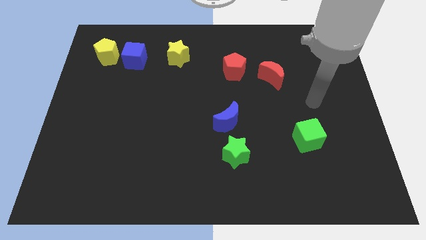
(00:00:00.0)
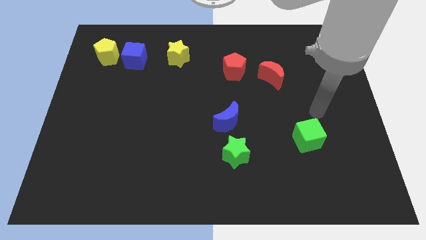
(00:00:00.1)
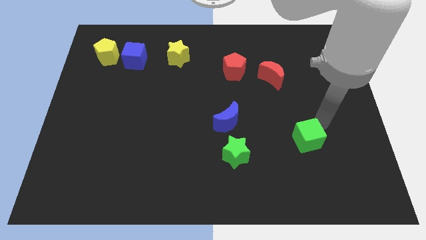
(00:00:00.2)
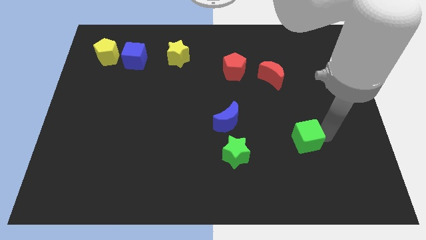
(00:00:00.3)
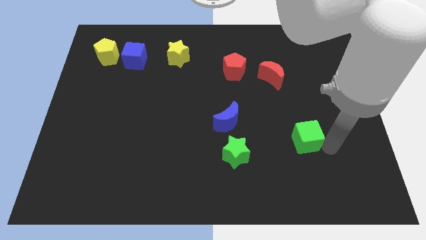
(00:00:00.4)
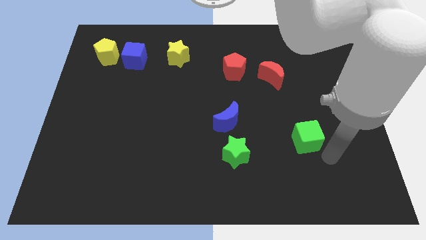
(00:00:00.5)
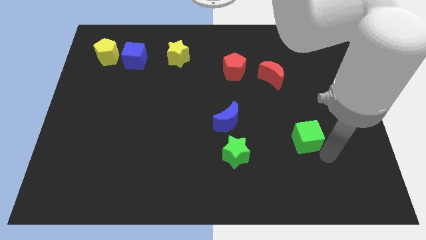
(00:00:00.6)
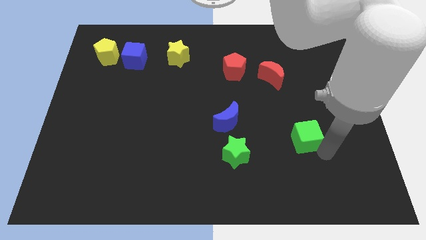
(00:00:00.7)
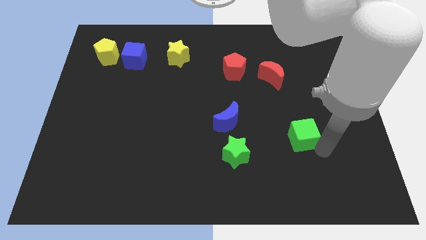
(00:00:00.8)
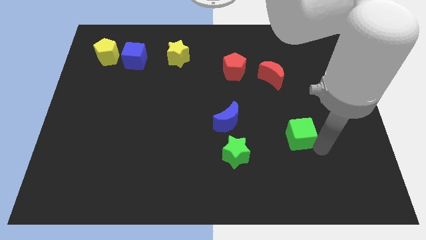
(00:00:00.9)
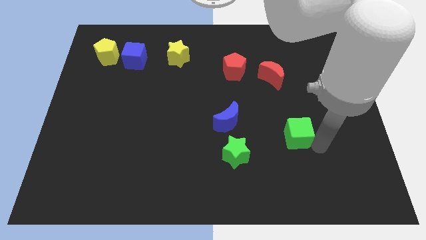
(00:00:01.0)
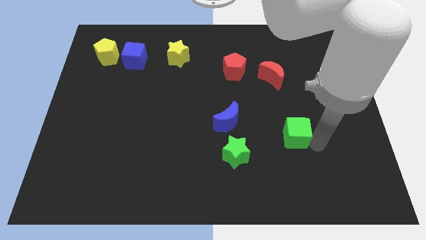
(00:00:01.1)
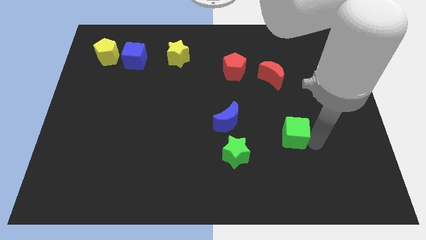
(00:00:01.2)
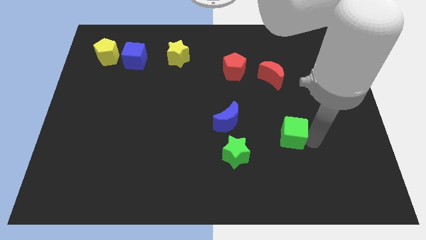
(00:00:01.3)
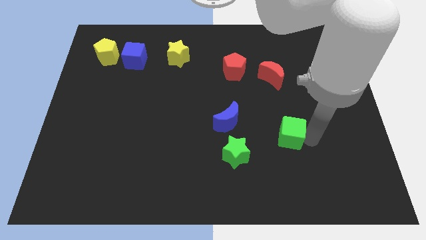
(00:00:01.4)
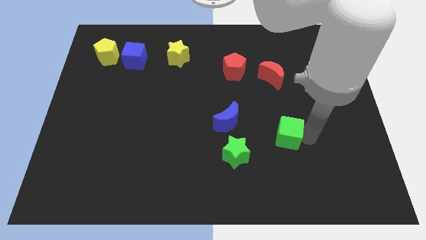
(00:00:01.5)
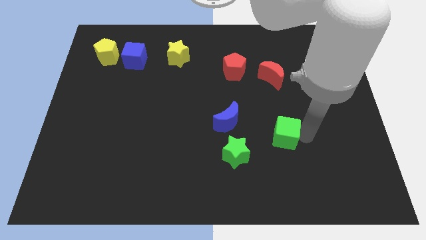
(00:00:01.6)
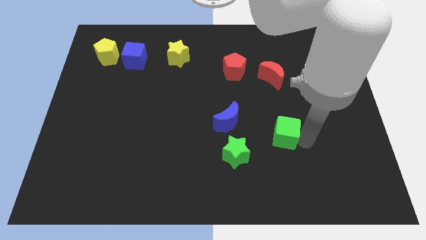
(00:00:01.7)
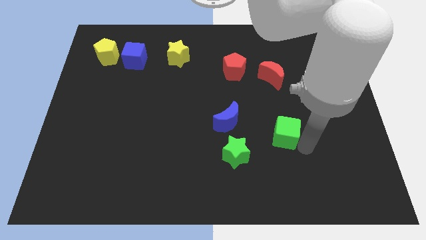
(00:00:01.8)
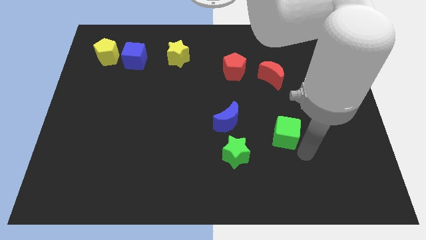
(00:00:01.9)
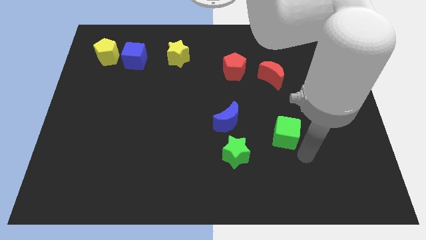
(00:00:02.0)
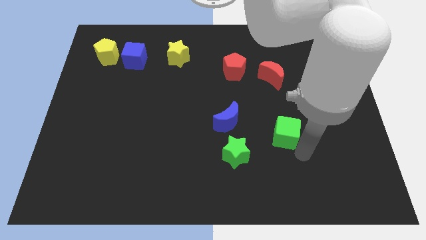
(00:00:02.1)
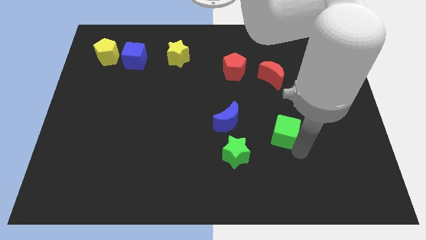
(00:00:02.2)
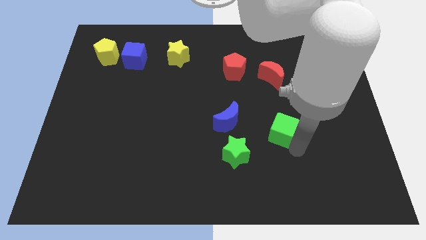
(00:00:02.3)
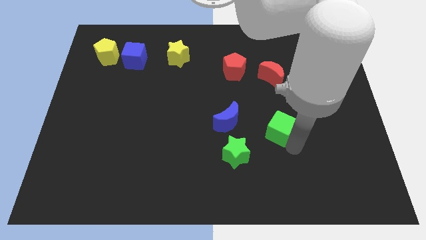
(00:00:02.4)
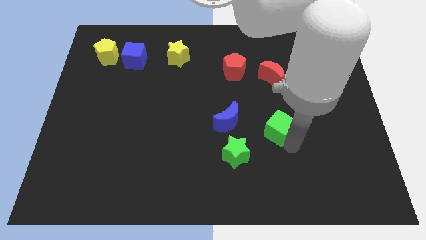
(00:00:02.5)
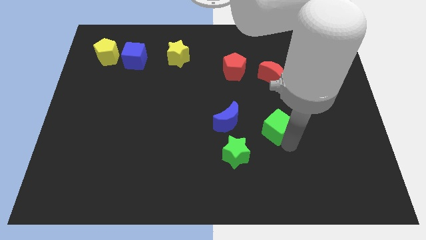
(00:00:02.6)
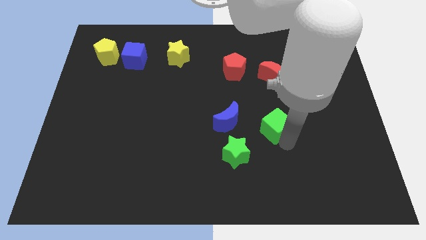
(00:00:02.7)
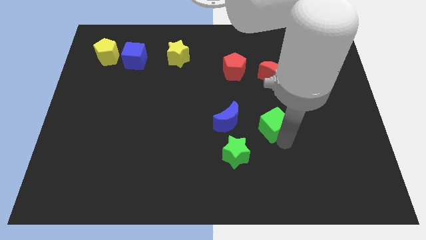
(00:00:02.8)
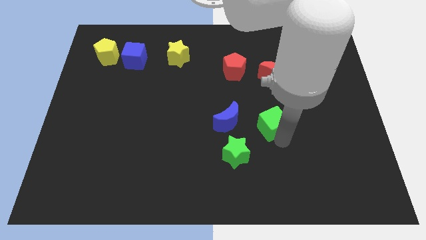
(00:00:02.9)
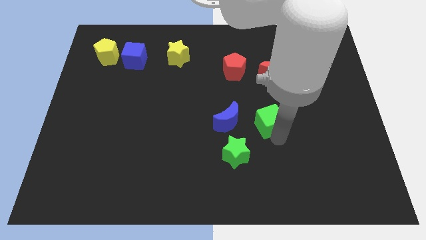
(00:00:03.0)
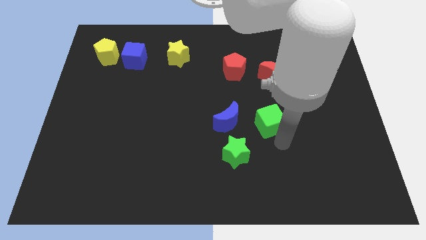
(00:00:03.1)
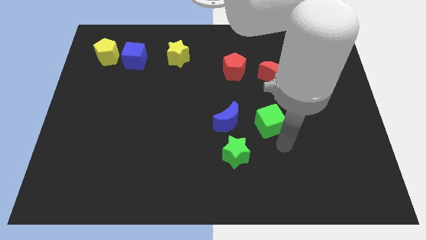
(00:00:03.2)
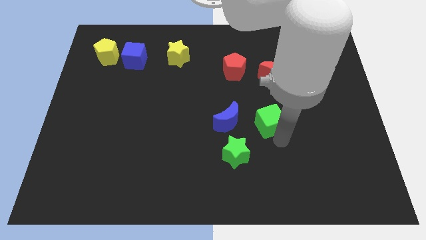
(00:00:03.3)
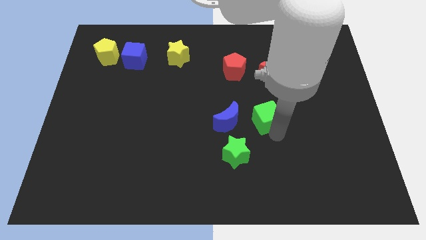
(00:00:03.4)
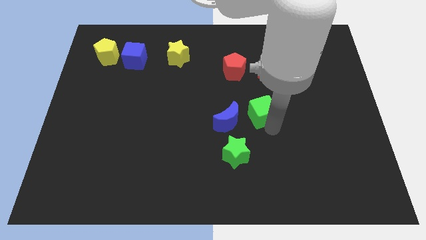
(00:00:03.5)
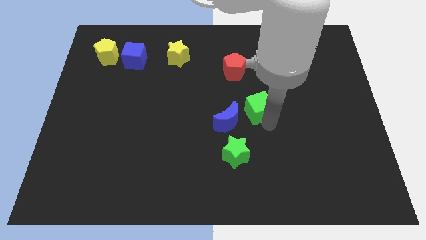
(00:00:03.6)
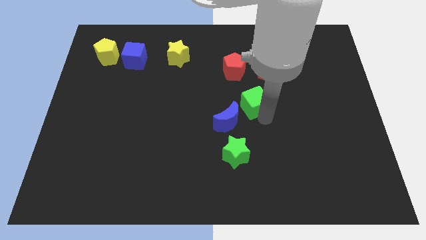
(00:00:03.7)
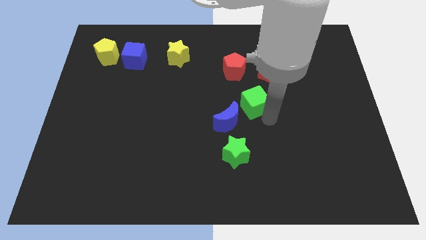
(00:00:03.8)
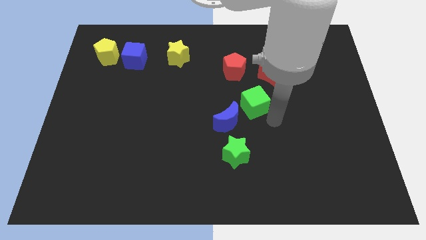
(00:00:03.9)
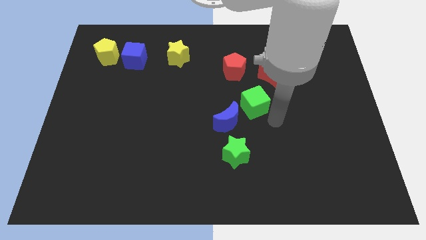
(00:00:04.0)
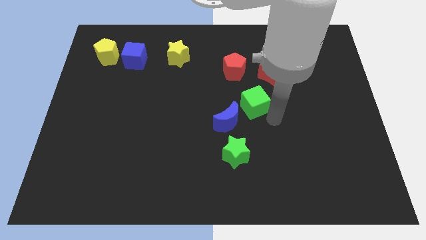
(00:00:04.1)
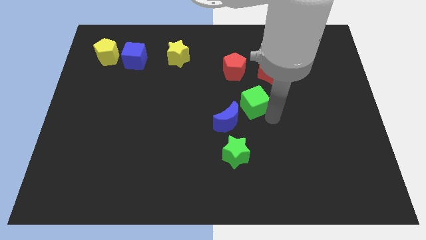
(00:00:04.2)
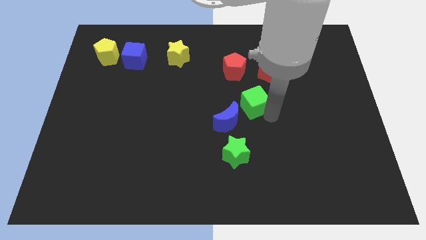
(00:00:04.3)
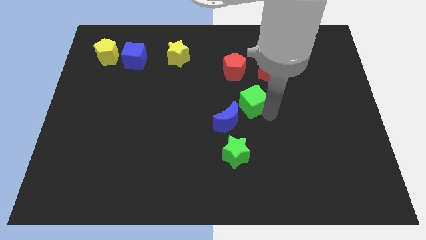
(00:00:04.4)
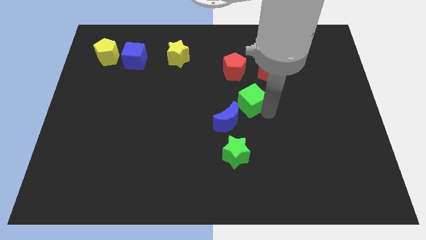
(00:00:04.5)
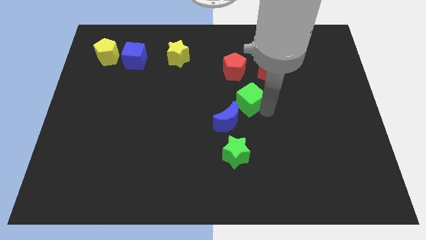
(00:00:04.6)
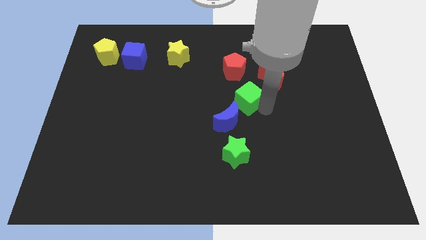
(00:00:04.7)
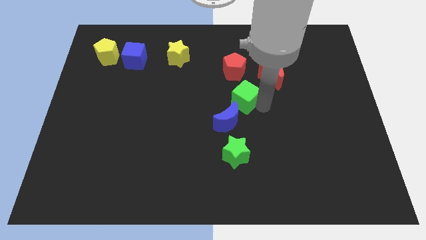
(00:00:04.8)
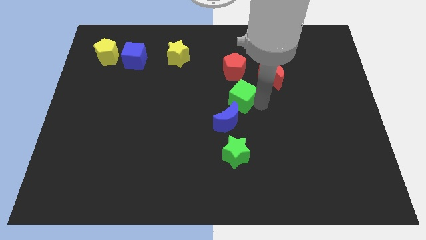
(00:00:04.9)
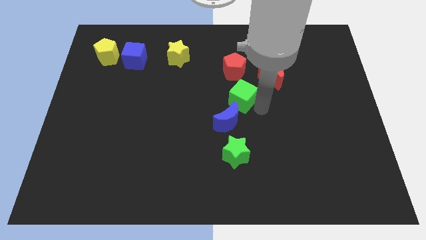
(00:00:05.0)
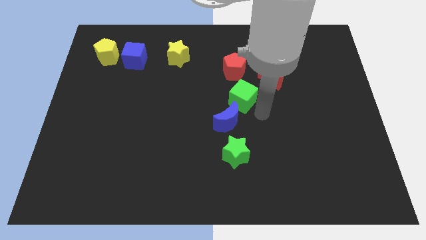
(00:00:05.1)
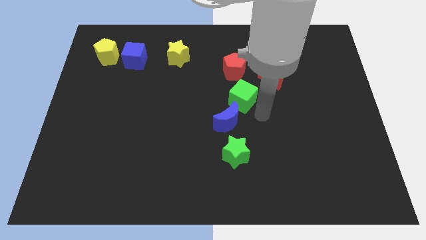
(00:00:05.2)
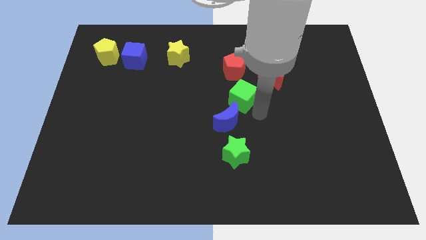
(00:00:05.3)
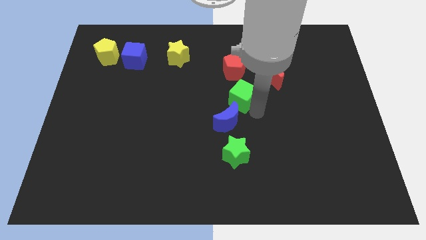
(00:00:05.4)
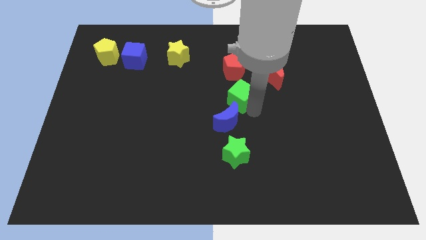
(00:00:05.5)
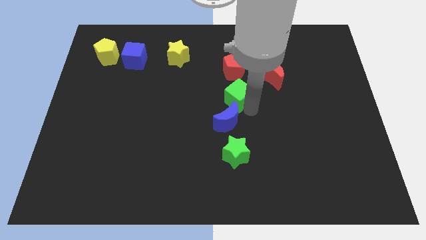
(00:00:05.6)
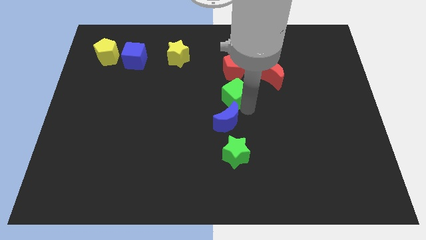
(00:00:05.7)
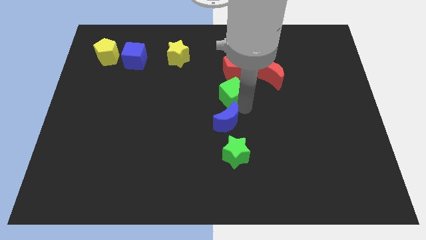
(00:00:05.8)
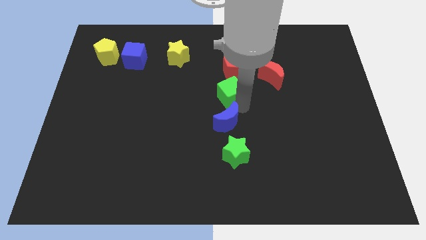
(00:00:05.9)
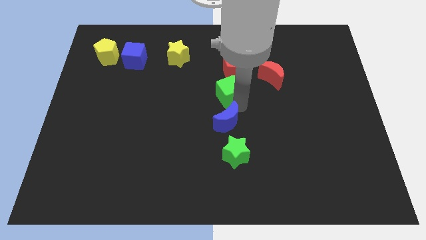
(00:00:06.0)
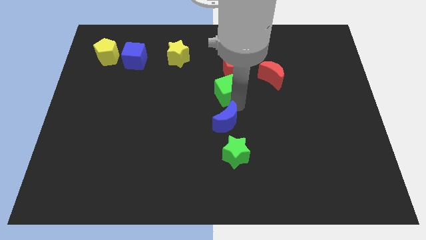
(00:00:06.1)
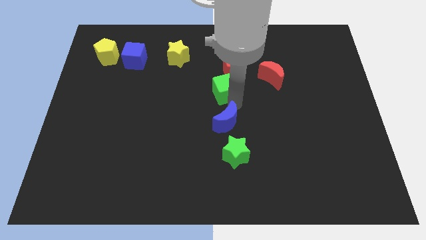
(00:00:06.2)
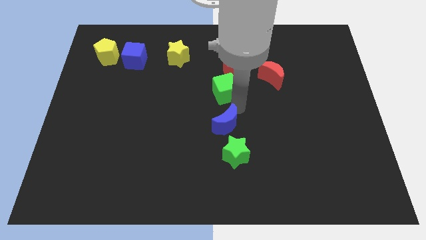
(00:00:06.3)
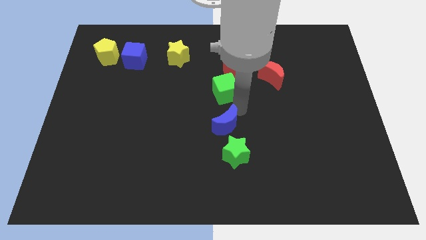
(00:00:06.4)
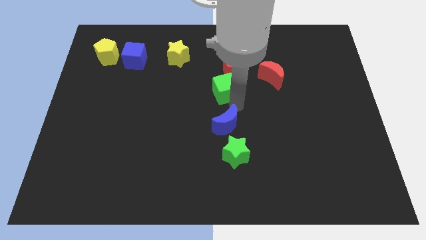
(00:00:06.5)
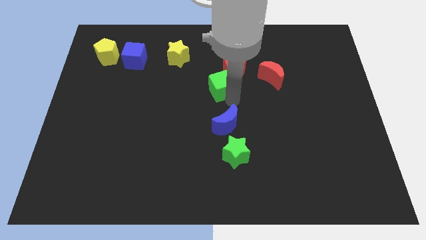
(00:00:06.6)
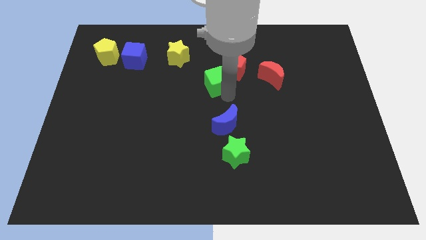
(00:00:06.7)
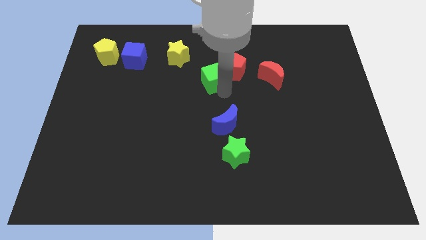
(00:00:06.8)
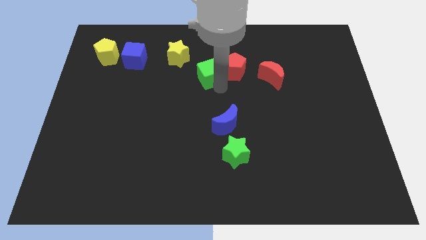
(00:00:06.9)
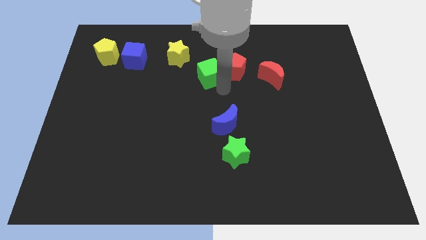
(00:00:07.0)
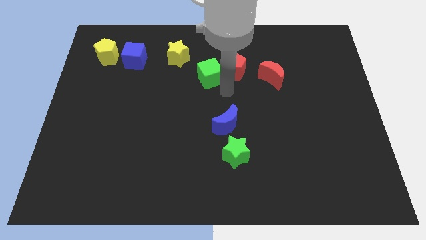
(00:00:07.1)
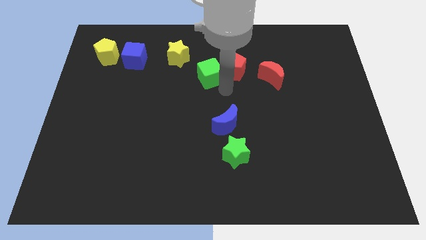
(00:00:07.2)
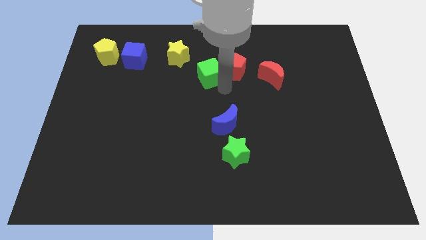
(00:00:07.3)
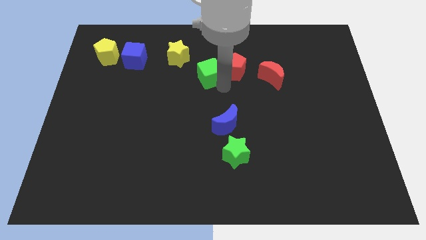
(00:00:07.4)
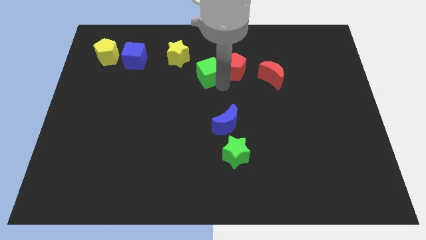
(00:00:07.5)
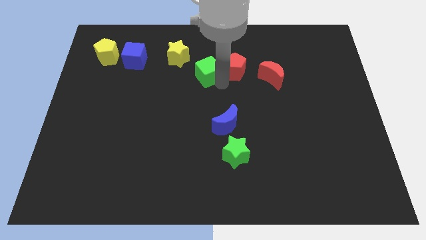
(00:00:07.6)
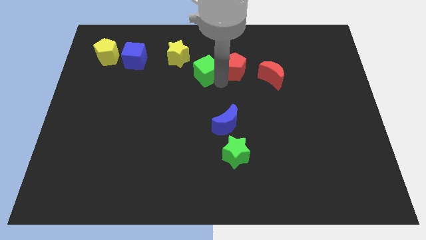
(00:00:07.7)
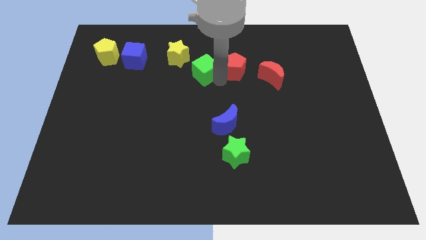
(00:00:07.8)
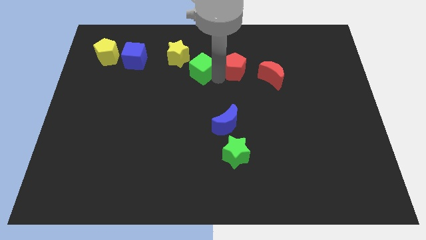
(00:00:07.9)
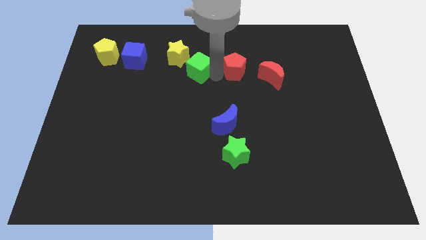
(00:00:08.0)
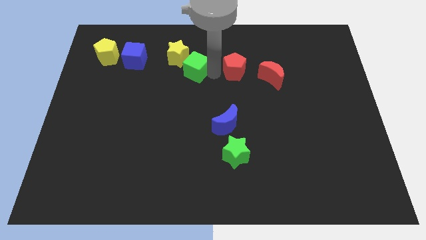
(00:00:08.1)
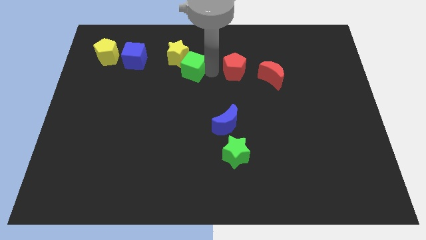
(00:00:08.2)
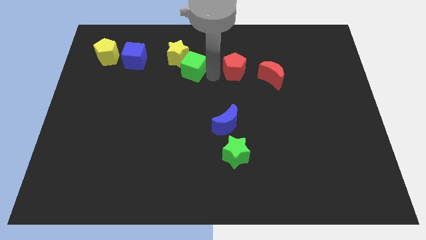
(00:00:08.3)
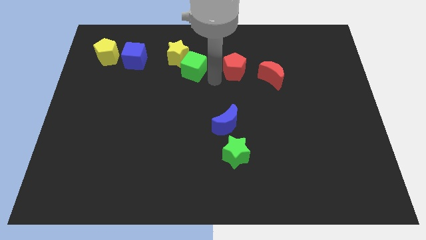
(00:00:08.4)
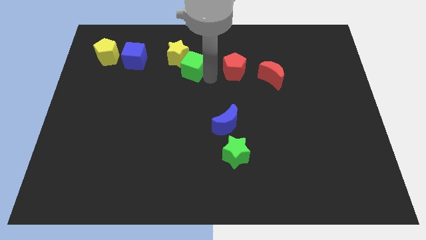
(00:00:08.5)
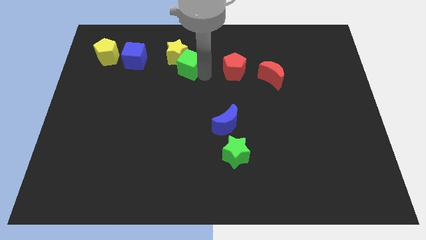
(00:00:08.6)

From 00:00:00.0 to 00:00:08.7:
put the green cube to the right side of the blue cube
